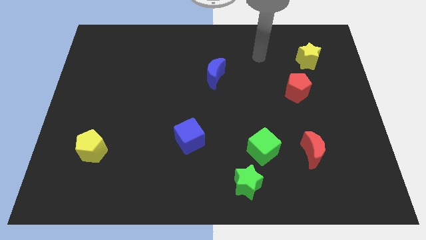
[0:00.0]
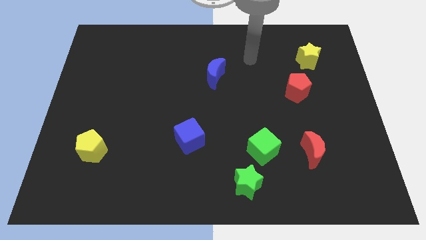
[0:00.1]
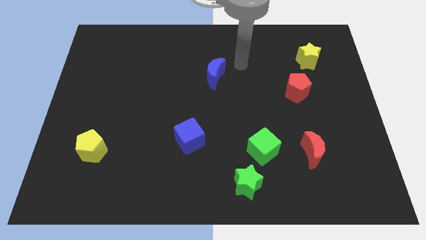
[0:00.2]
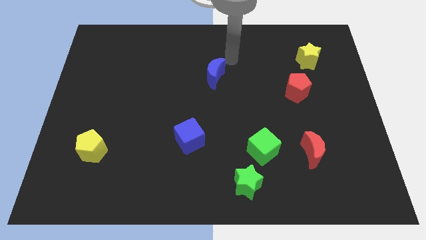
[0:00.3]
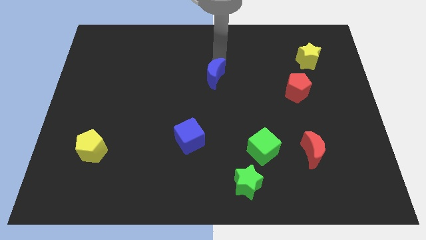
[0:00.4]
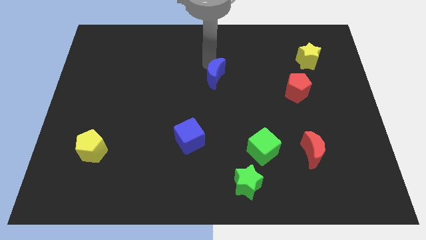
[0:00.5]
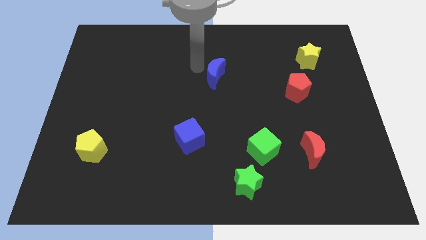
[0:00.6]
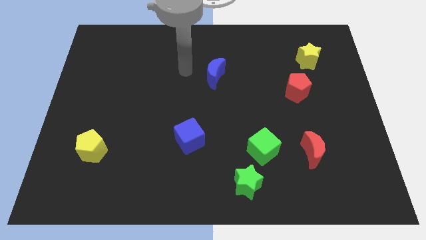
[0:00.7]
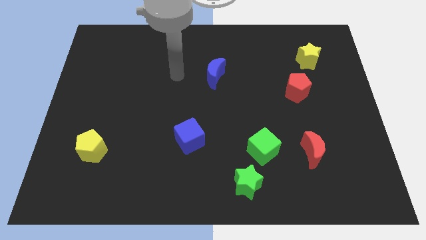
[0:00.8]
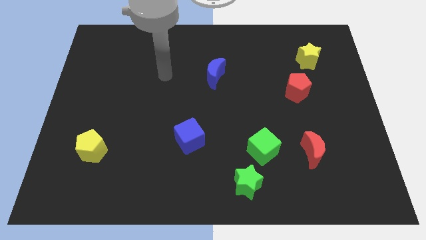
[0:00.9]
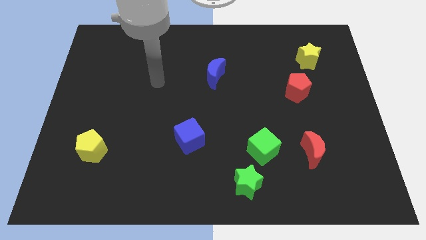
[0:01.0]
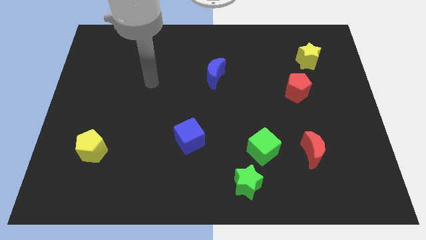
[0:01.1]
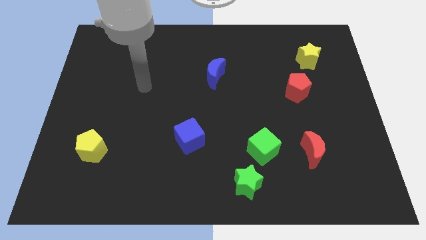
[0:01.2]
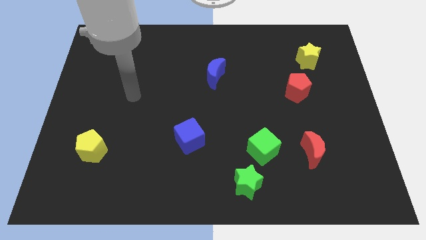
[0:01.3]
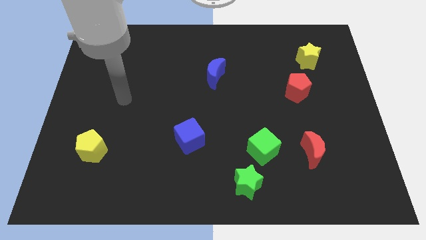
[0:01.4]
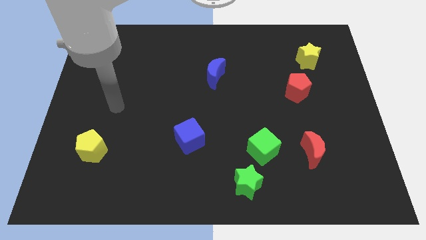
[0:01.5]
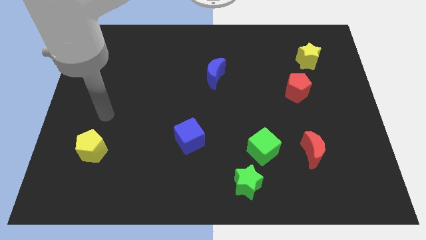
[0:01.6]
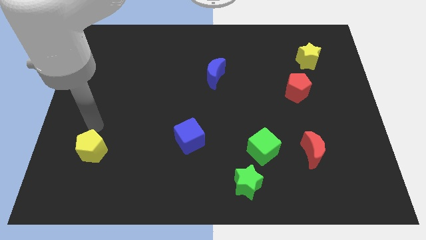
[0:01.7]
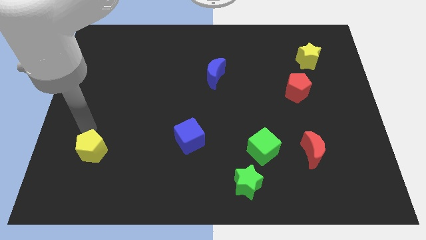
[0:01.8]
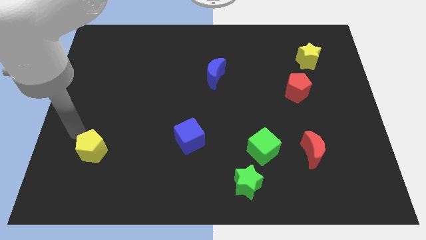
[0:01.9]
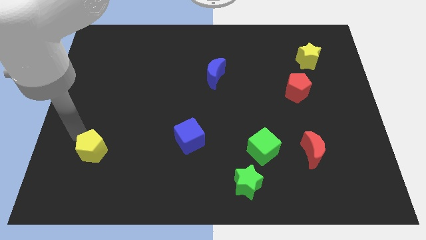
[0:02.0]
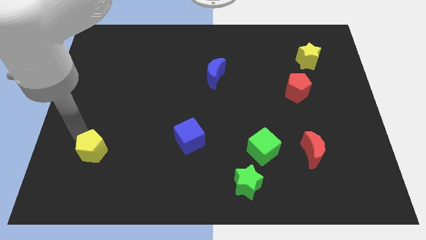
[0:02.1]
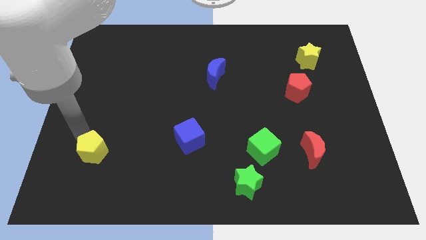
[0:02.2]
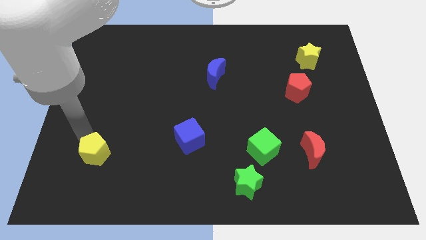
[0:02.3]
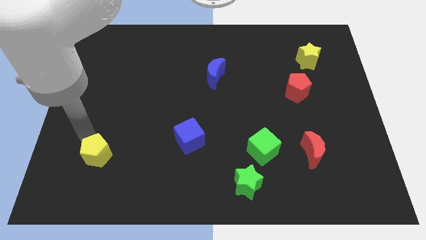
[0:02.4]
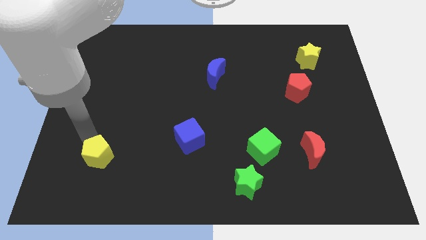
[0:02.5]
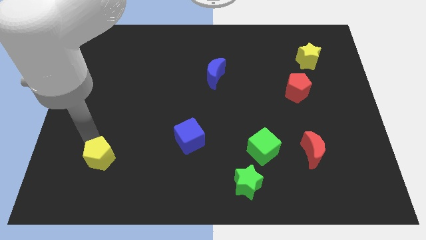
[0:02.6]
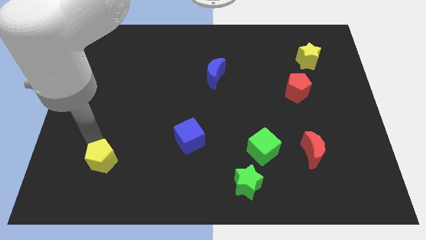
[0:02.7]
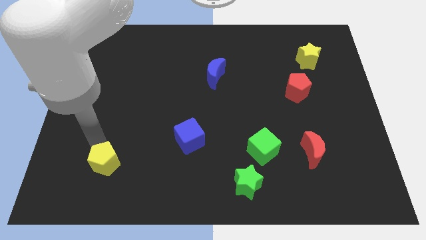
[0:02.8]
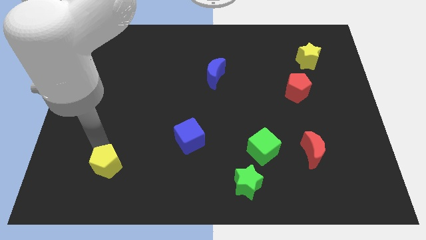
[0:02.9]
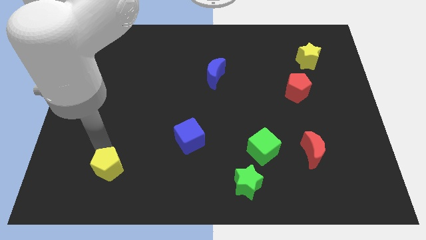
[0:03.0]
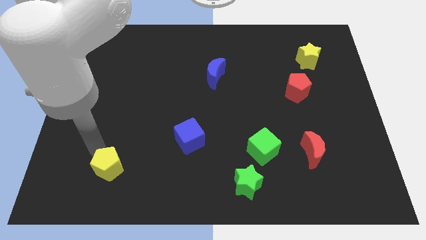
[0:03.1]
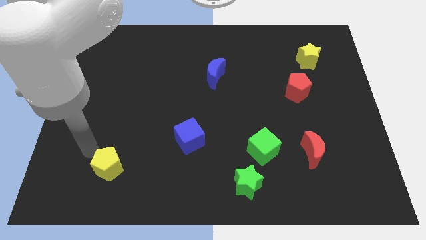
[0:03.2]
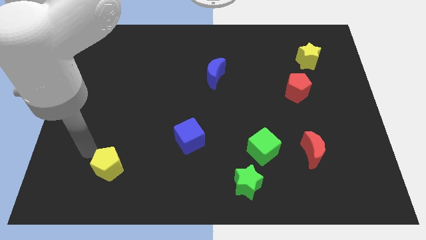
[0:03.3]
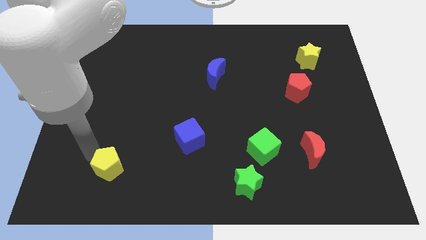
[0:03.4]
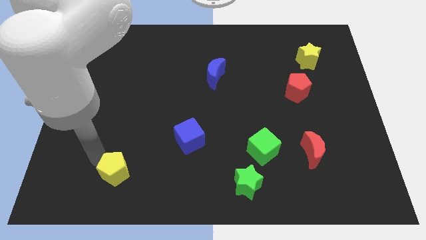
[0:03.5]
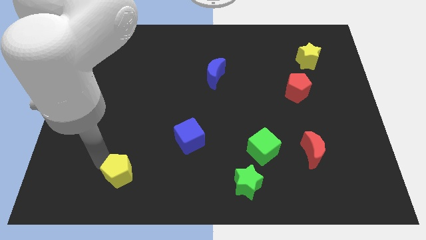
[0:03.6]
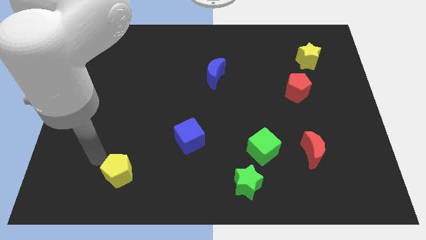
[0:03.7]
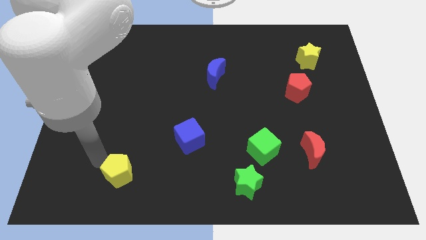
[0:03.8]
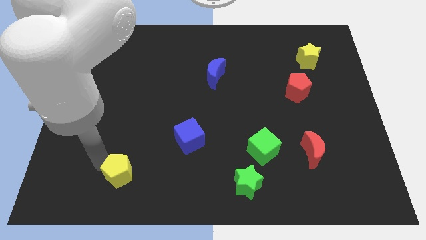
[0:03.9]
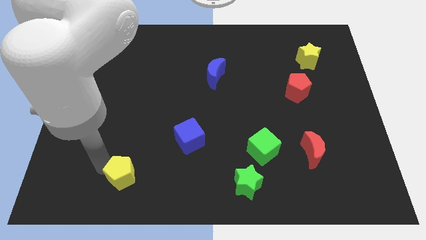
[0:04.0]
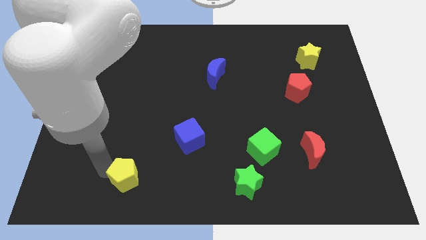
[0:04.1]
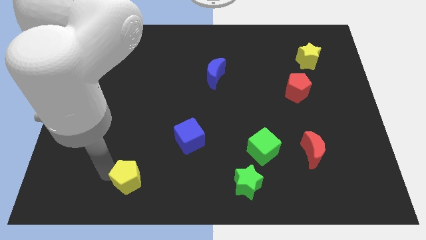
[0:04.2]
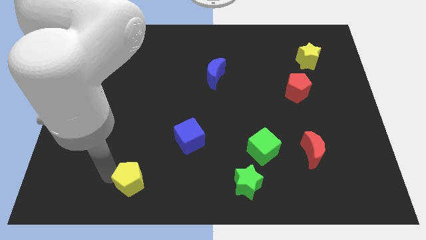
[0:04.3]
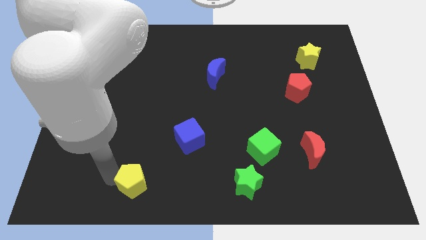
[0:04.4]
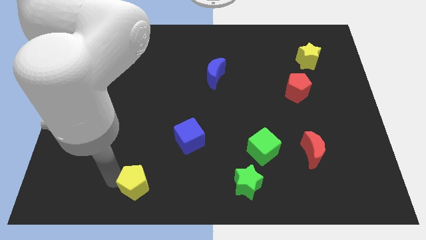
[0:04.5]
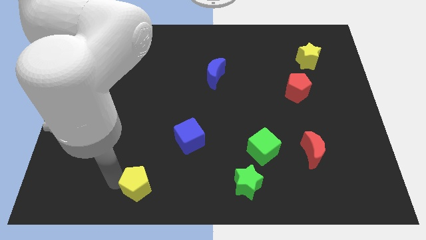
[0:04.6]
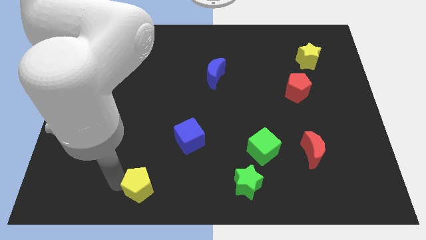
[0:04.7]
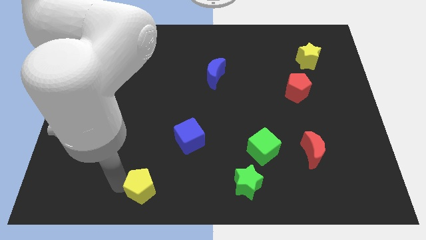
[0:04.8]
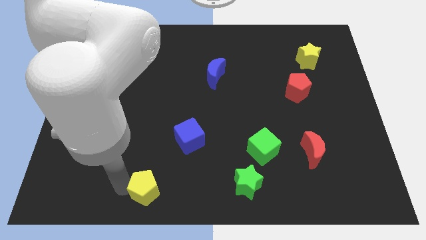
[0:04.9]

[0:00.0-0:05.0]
push the yellow pentagon to the bottom

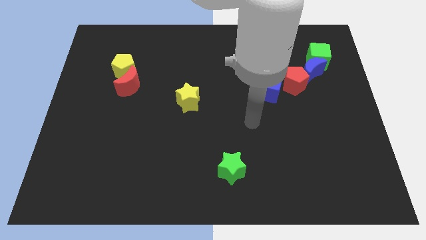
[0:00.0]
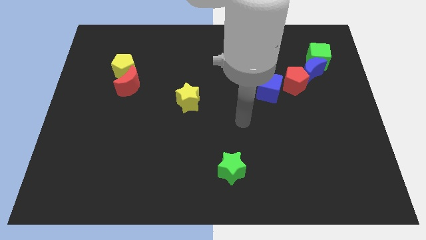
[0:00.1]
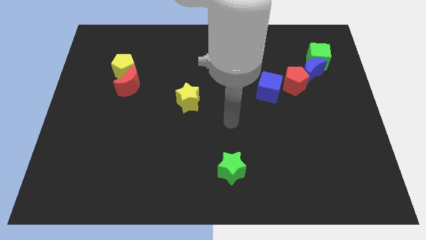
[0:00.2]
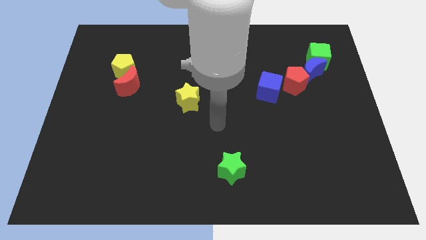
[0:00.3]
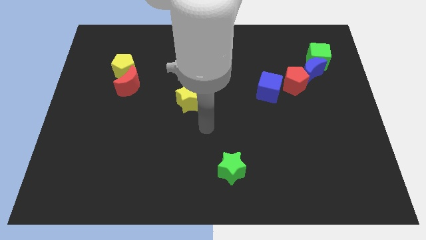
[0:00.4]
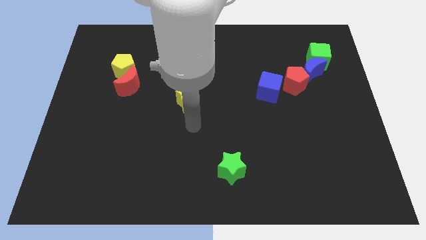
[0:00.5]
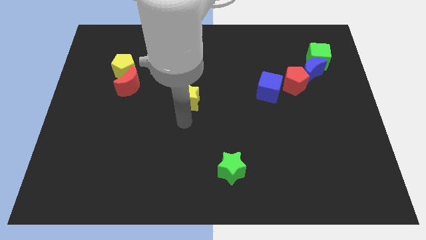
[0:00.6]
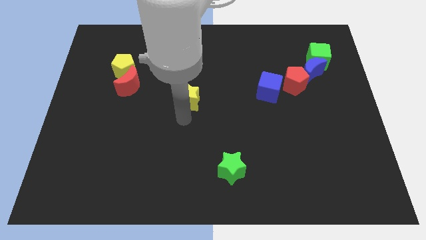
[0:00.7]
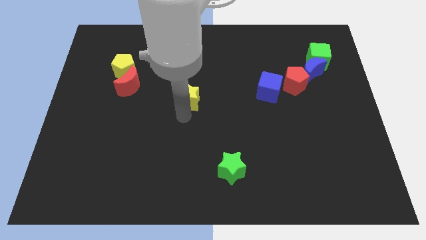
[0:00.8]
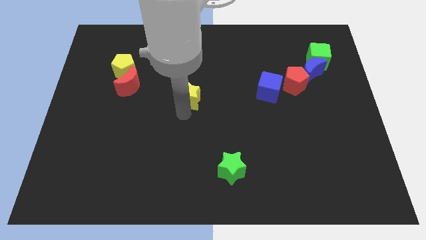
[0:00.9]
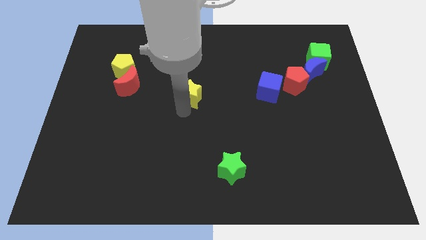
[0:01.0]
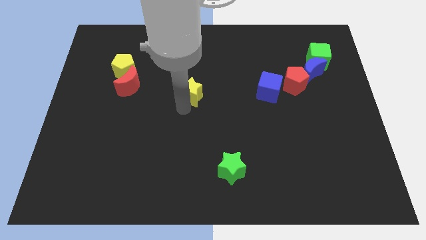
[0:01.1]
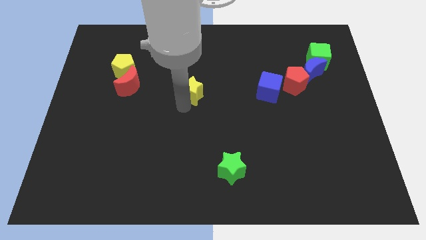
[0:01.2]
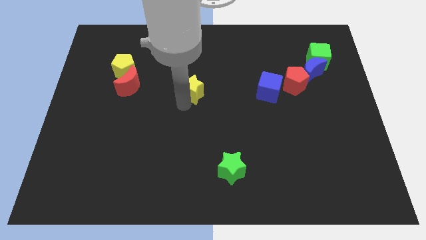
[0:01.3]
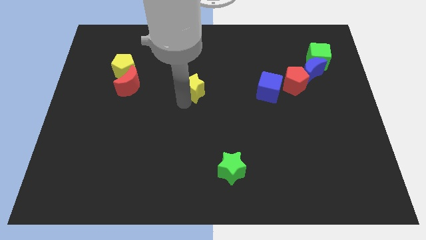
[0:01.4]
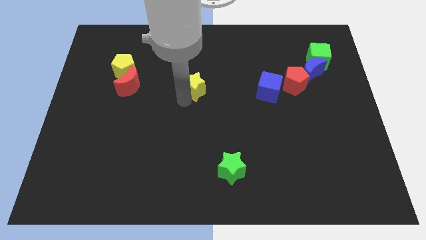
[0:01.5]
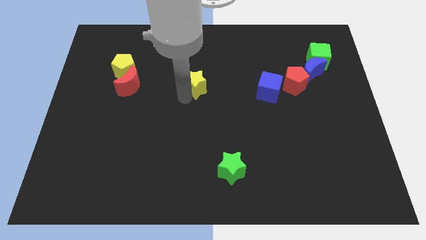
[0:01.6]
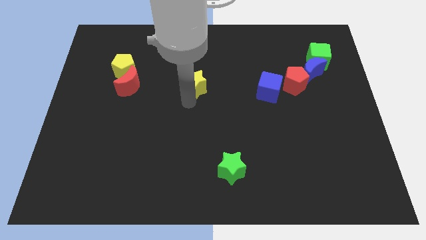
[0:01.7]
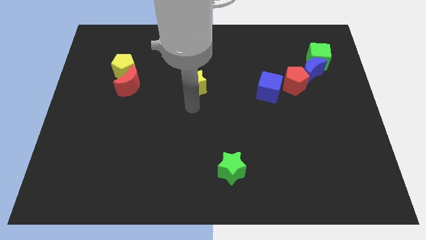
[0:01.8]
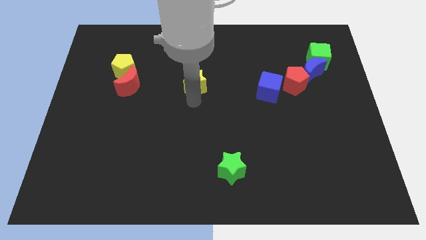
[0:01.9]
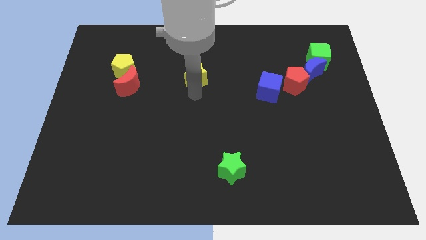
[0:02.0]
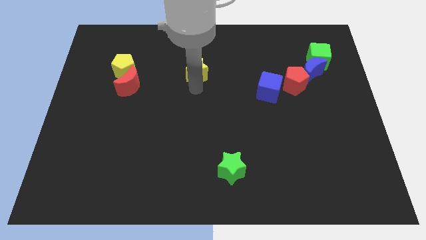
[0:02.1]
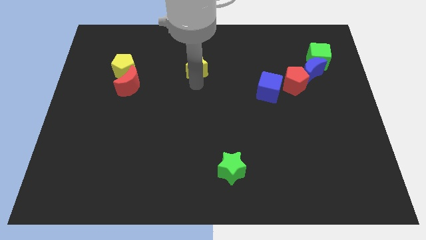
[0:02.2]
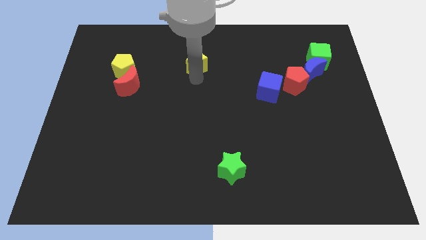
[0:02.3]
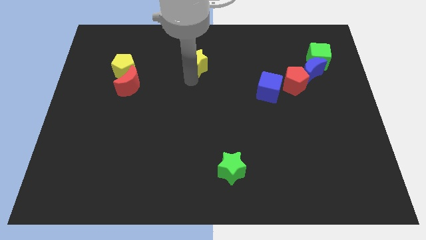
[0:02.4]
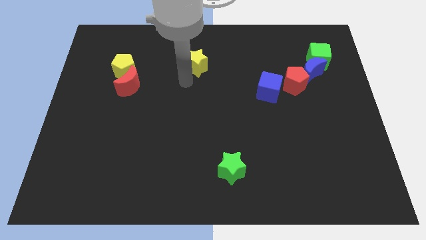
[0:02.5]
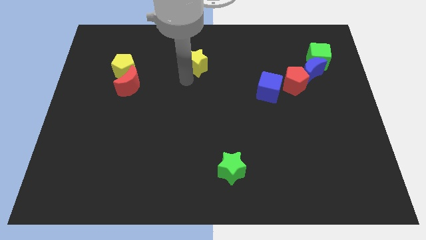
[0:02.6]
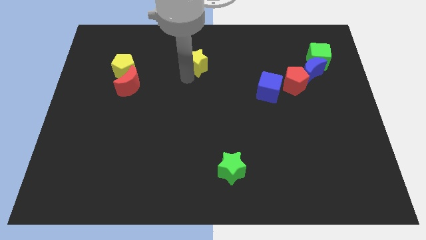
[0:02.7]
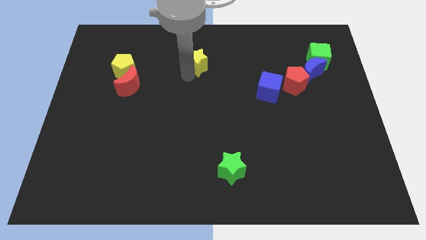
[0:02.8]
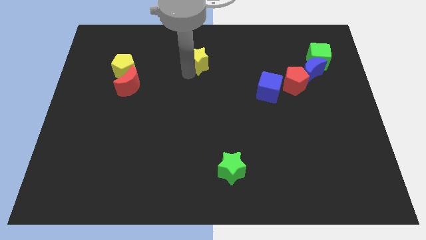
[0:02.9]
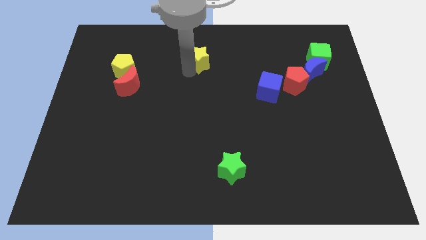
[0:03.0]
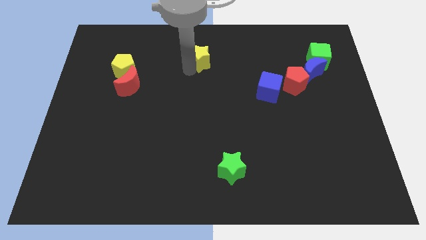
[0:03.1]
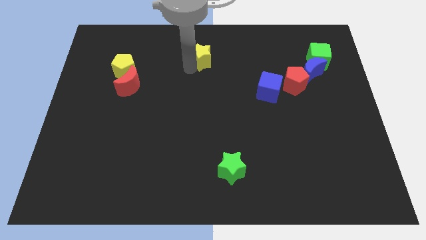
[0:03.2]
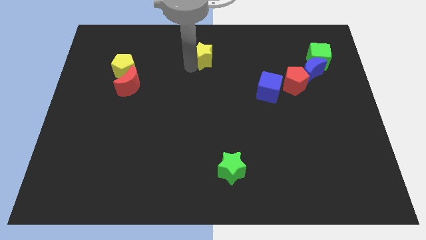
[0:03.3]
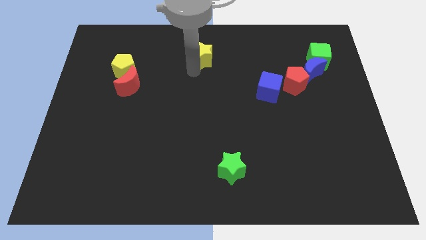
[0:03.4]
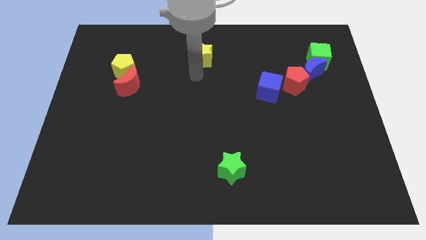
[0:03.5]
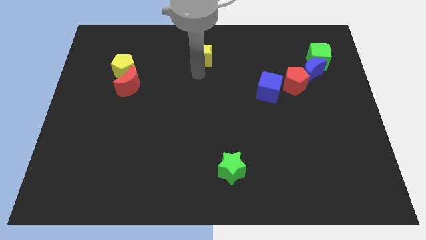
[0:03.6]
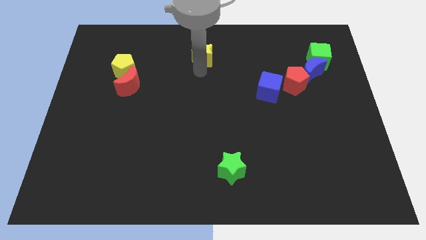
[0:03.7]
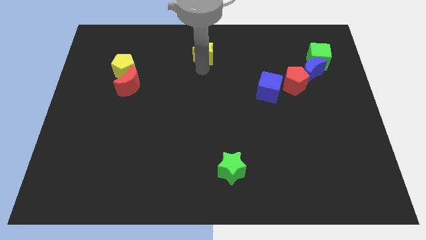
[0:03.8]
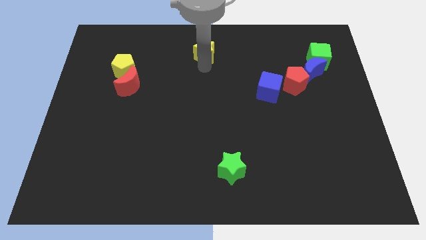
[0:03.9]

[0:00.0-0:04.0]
move the yellow star to the top
